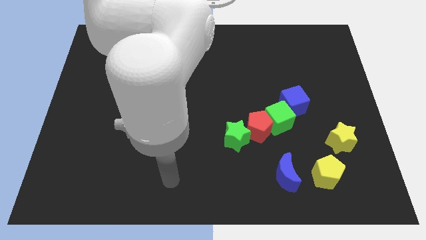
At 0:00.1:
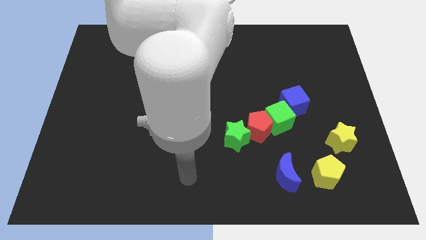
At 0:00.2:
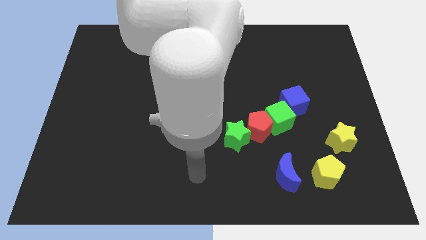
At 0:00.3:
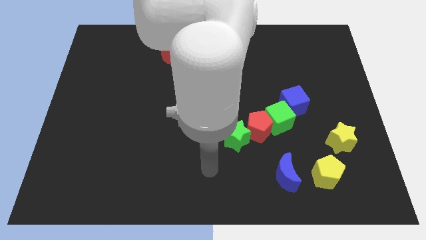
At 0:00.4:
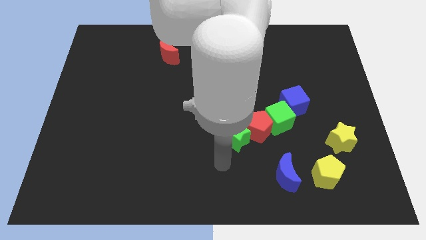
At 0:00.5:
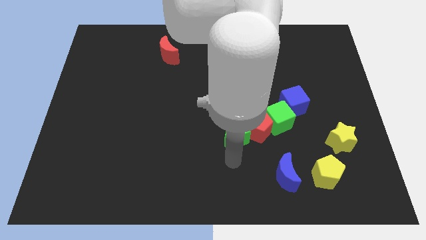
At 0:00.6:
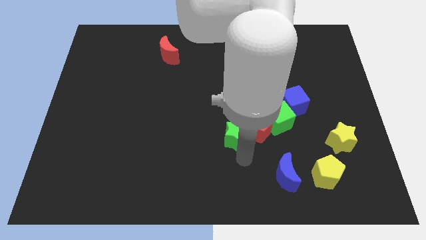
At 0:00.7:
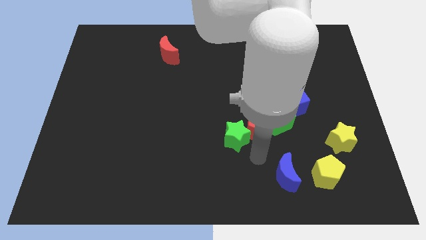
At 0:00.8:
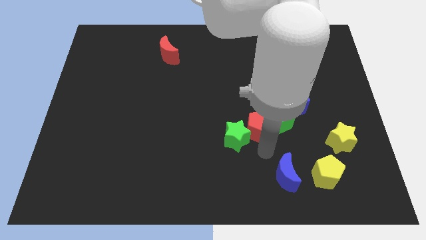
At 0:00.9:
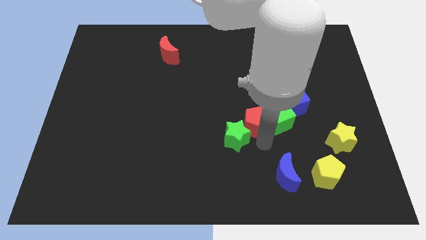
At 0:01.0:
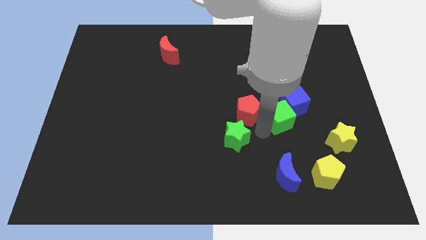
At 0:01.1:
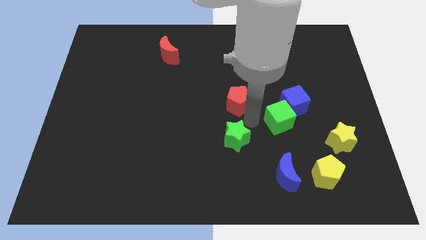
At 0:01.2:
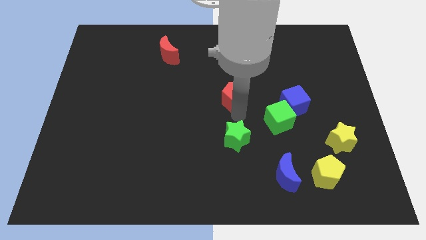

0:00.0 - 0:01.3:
move the green star away from the red pentagon

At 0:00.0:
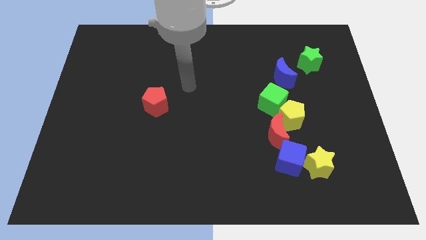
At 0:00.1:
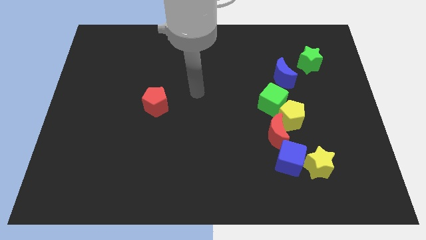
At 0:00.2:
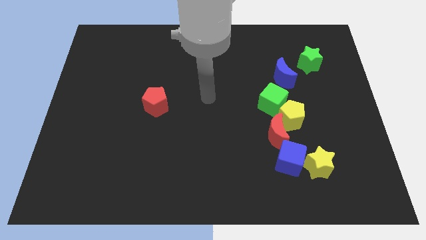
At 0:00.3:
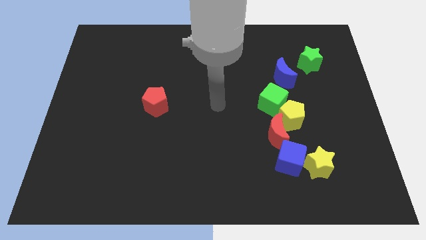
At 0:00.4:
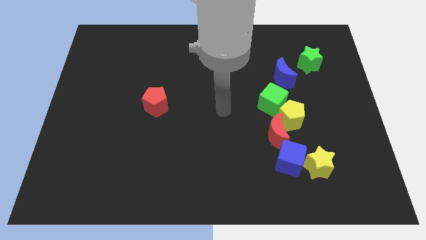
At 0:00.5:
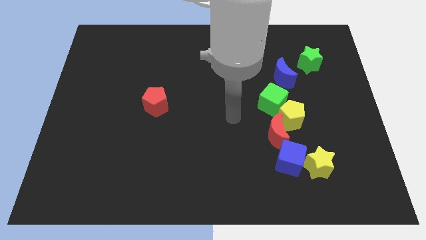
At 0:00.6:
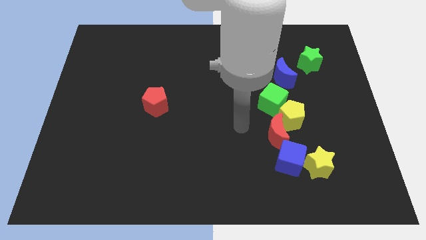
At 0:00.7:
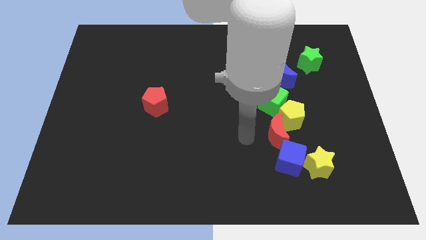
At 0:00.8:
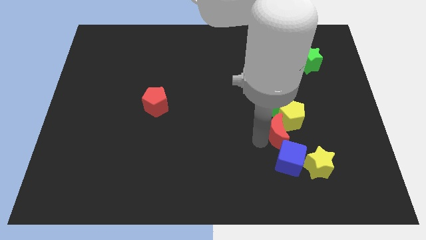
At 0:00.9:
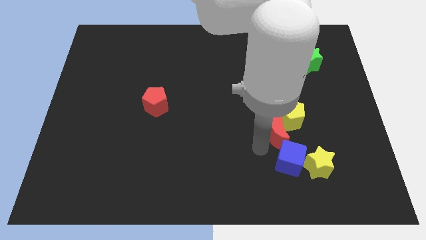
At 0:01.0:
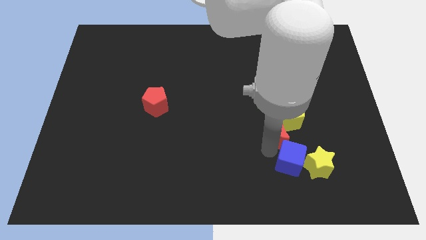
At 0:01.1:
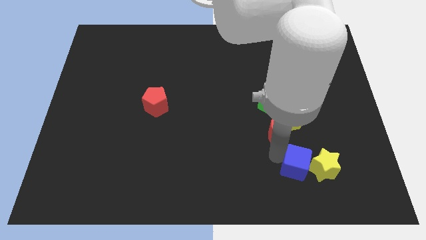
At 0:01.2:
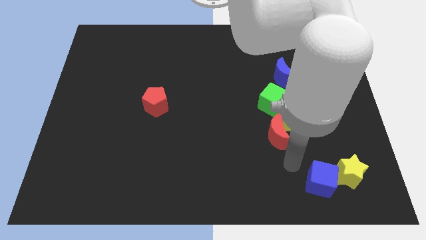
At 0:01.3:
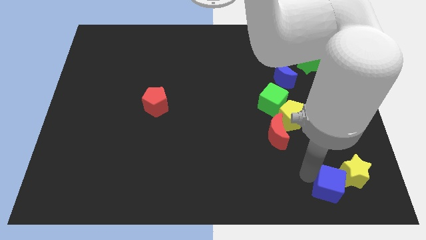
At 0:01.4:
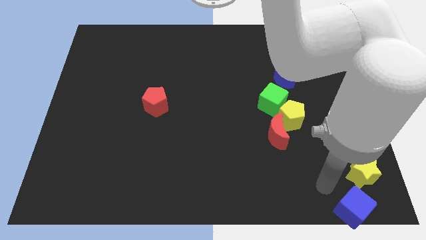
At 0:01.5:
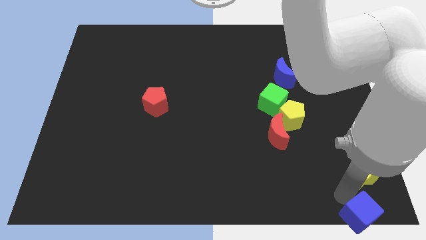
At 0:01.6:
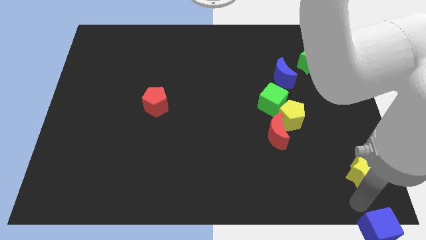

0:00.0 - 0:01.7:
pull the yellow star apart from the blue cube

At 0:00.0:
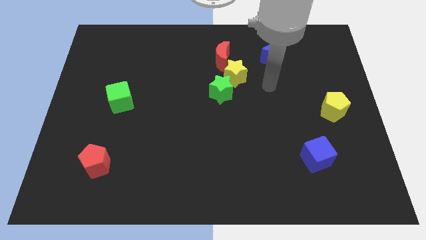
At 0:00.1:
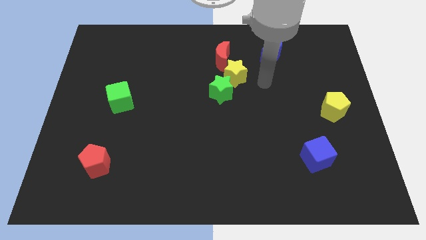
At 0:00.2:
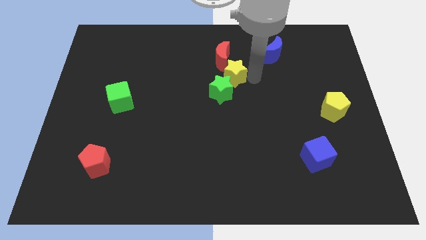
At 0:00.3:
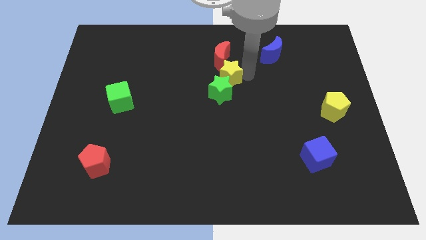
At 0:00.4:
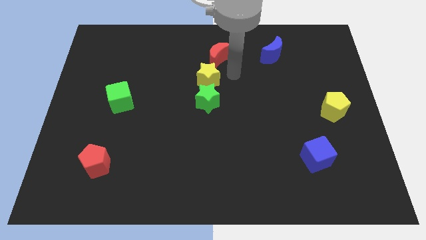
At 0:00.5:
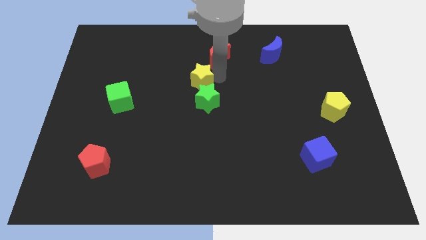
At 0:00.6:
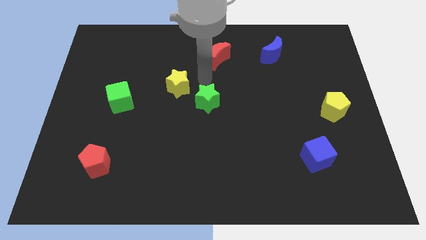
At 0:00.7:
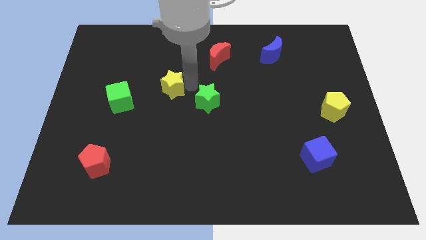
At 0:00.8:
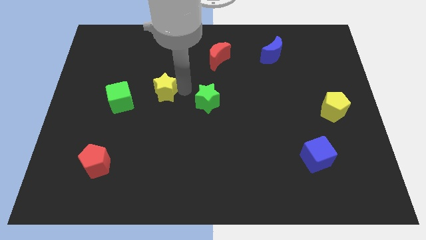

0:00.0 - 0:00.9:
pull the green star apart from the yellow star

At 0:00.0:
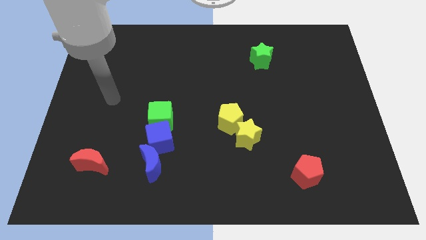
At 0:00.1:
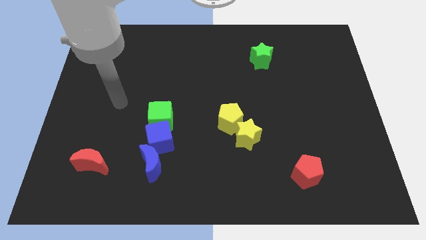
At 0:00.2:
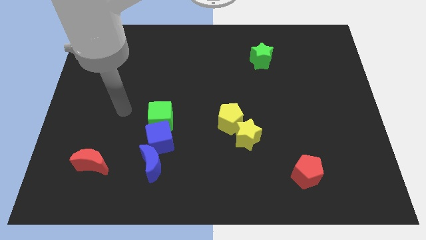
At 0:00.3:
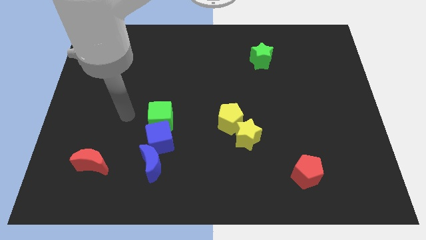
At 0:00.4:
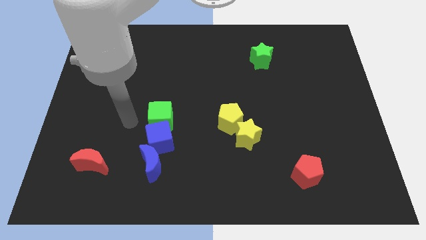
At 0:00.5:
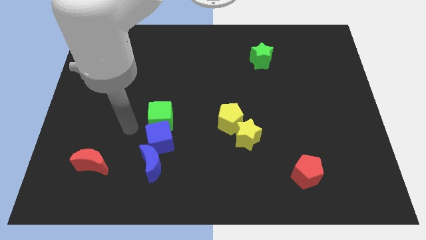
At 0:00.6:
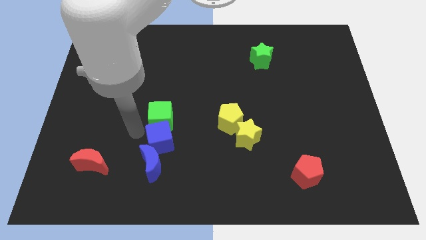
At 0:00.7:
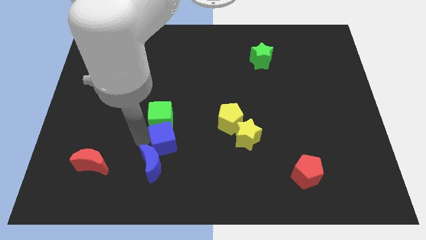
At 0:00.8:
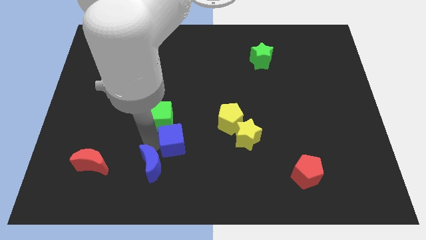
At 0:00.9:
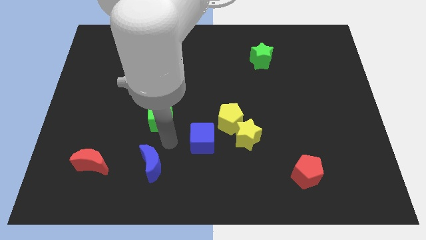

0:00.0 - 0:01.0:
separate the green cube from the blue cube

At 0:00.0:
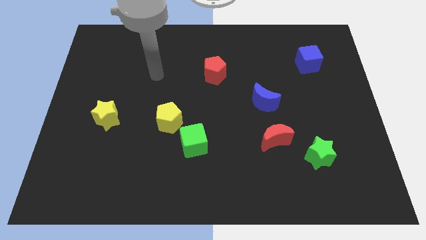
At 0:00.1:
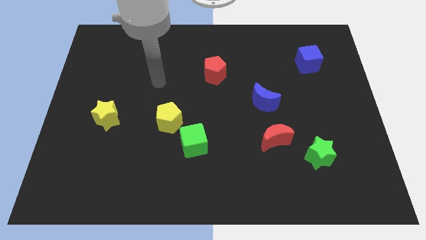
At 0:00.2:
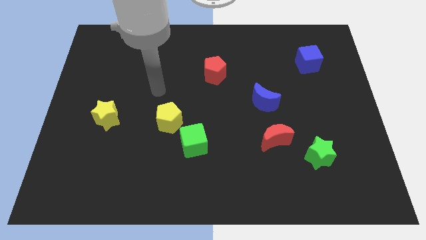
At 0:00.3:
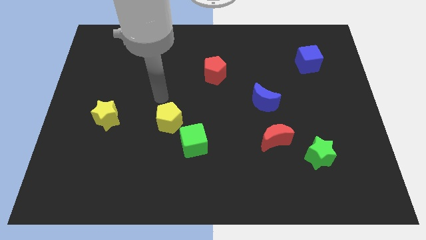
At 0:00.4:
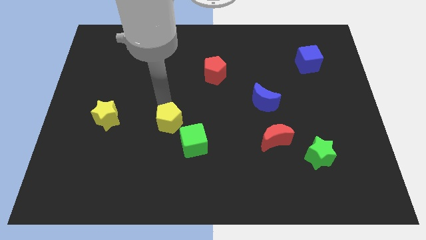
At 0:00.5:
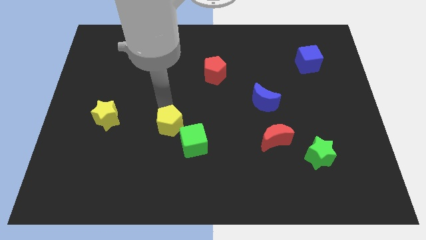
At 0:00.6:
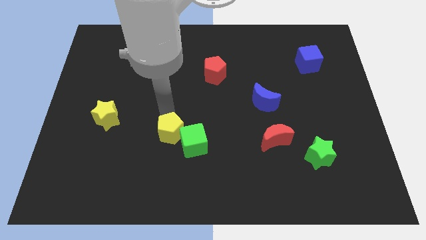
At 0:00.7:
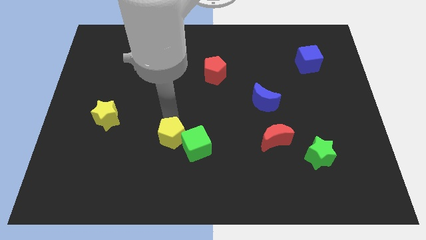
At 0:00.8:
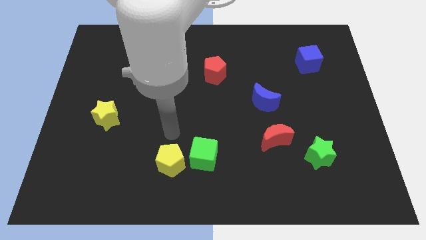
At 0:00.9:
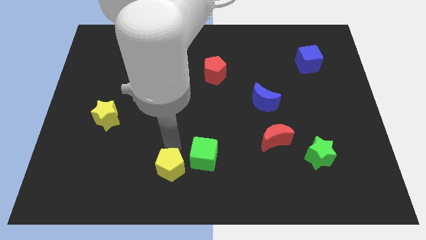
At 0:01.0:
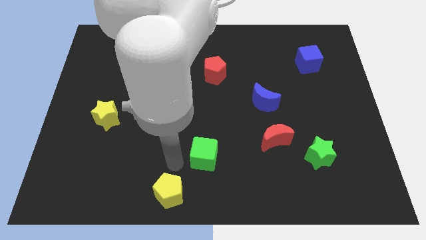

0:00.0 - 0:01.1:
pull the green cube apart from the yellow pentagon

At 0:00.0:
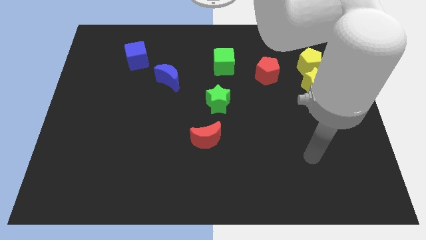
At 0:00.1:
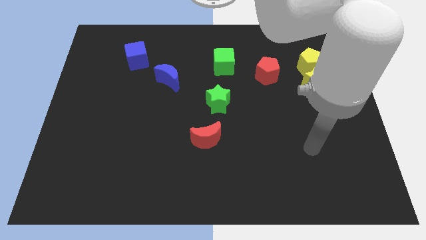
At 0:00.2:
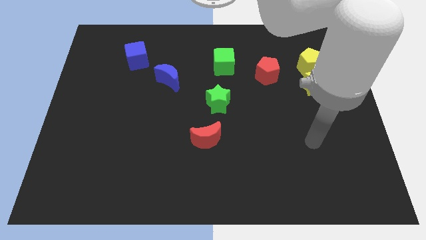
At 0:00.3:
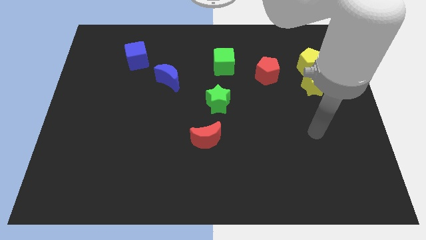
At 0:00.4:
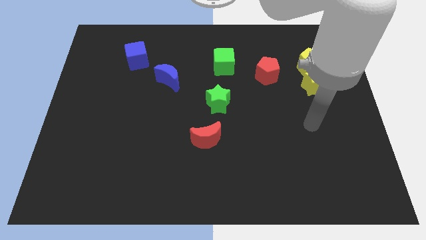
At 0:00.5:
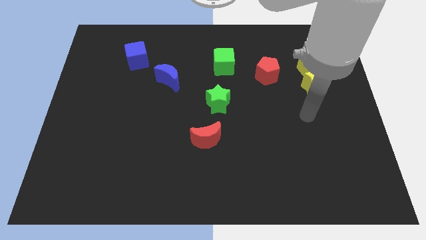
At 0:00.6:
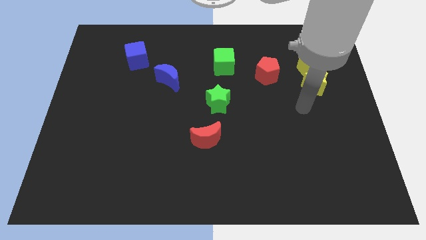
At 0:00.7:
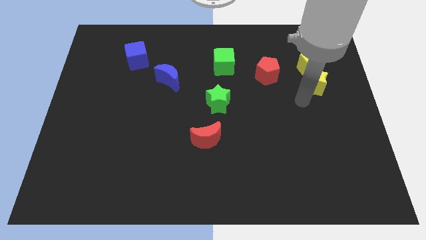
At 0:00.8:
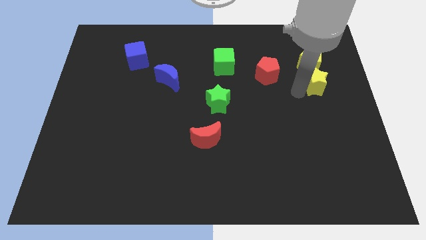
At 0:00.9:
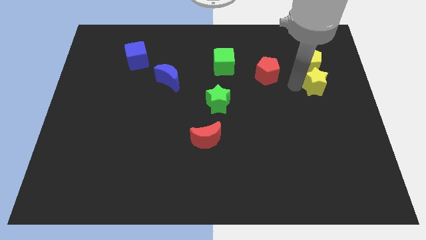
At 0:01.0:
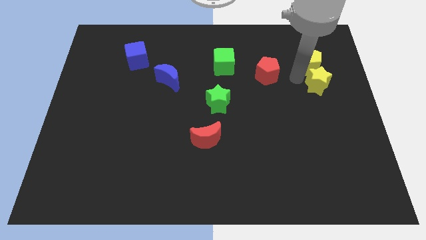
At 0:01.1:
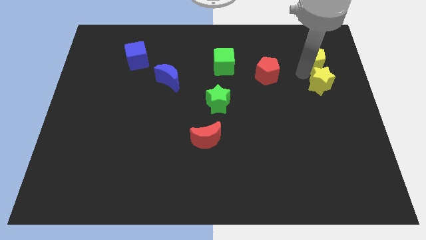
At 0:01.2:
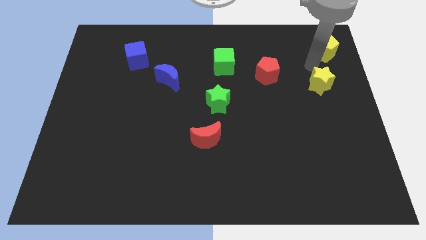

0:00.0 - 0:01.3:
move the yellow star away from the yellow pentagon

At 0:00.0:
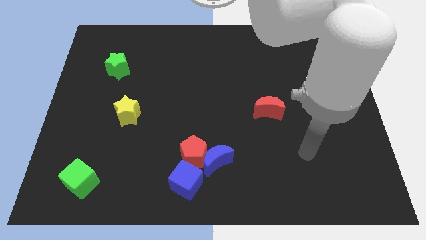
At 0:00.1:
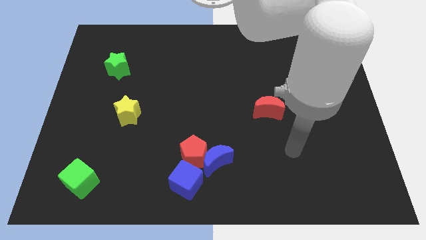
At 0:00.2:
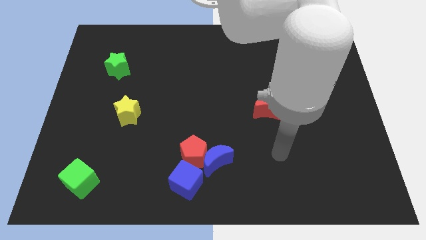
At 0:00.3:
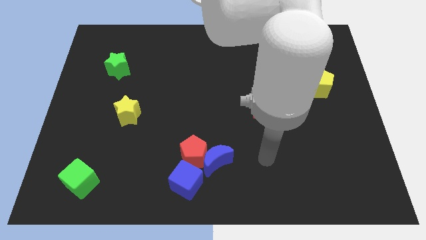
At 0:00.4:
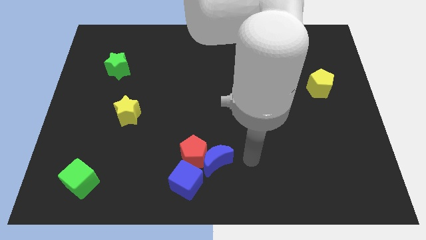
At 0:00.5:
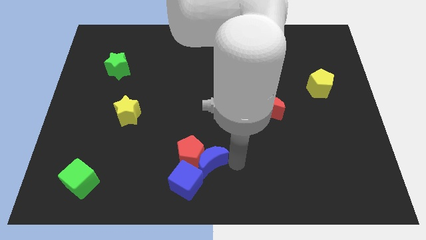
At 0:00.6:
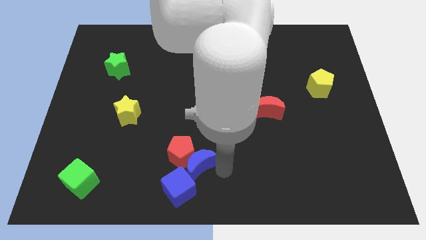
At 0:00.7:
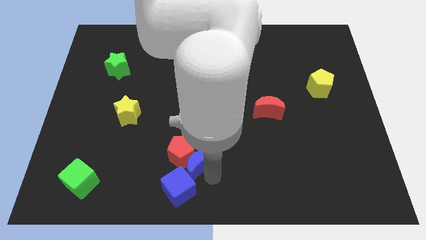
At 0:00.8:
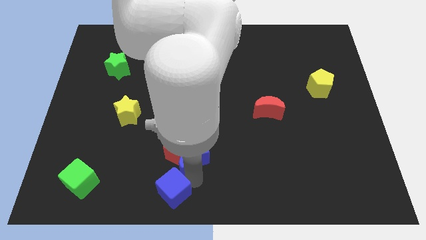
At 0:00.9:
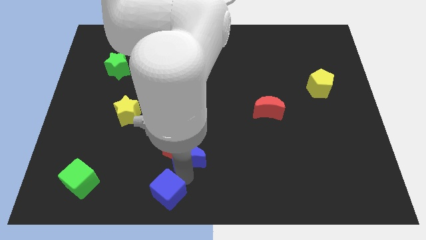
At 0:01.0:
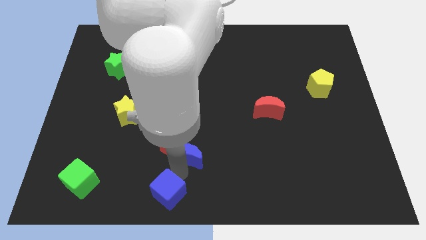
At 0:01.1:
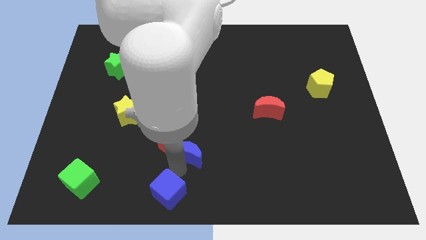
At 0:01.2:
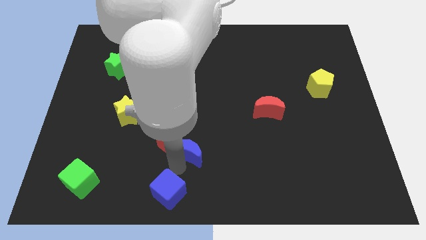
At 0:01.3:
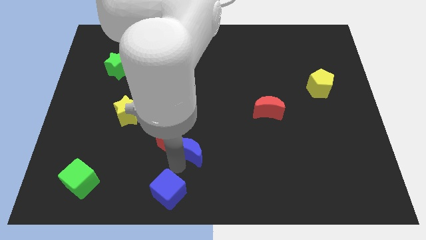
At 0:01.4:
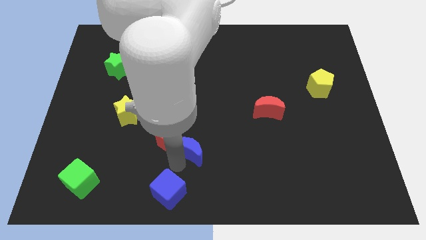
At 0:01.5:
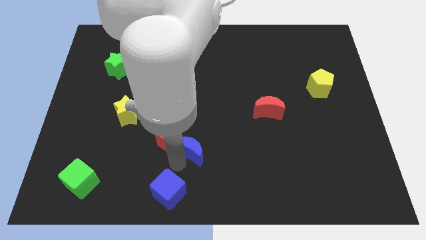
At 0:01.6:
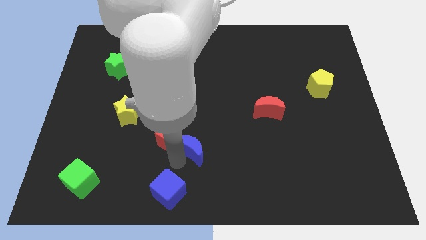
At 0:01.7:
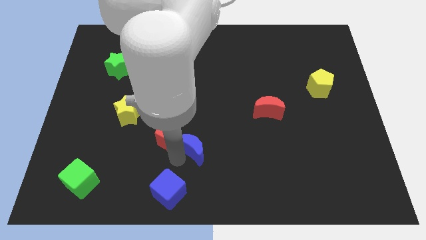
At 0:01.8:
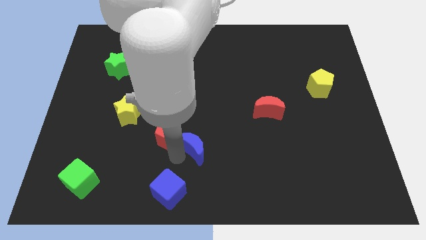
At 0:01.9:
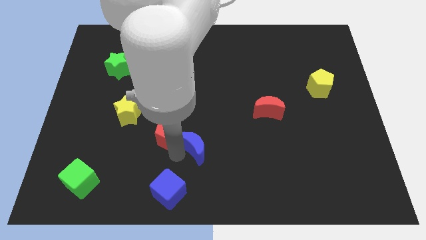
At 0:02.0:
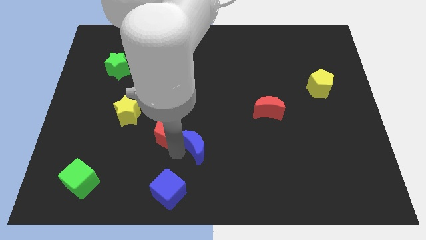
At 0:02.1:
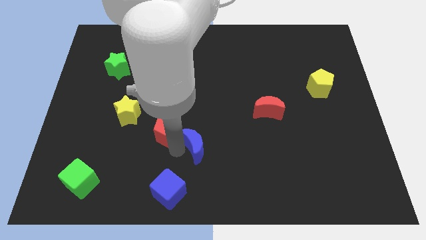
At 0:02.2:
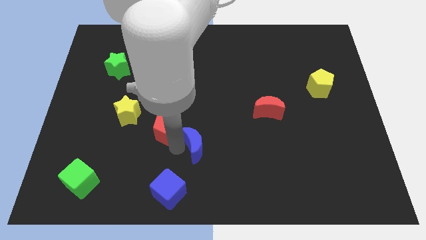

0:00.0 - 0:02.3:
pull the red pentagon apart from the blue moon and blue cube
